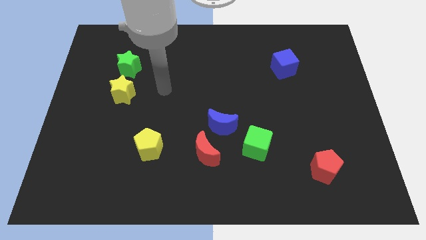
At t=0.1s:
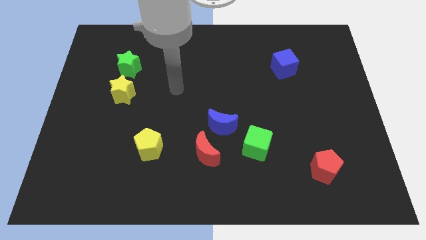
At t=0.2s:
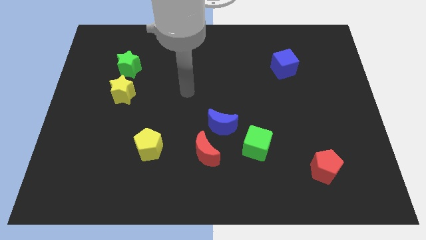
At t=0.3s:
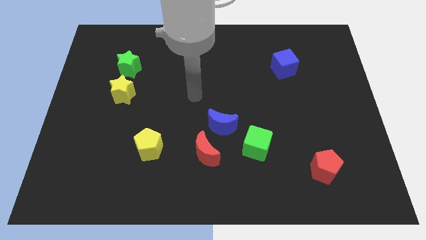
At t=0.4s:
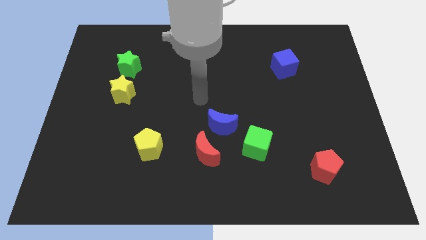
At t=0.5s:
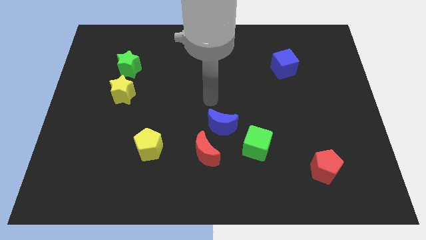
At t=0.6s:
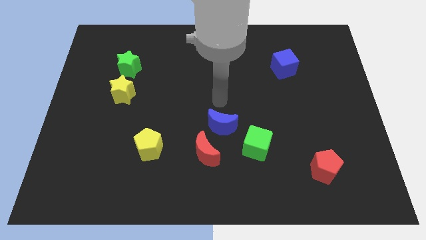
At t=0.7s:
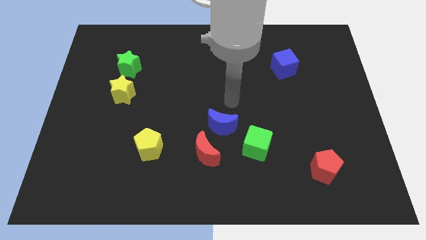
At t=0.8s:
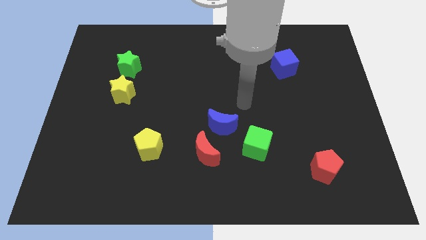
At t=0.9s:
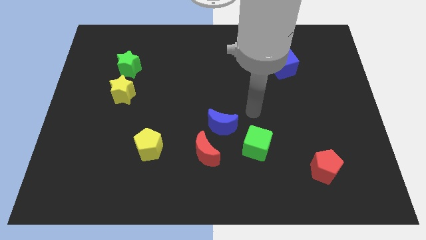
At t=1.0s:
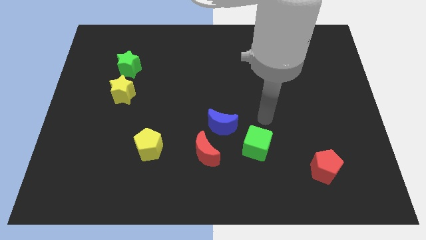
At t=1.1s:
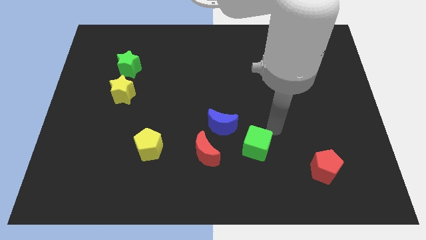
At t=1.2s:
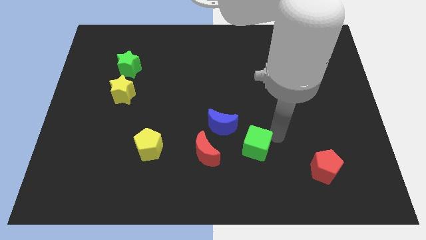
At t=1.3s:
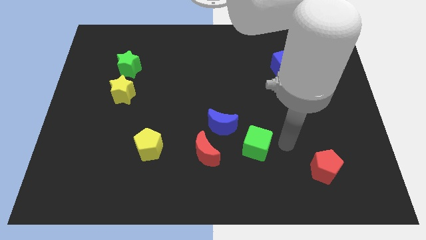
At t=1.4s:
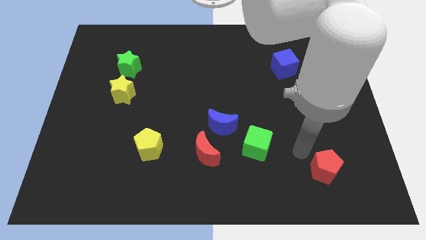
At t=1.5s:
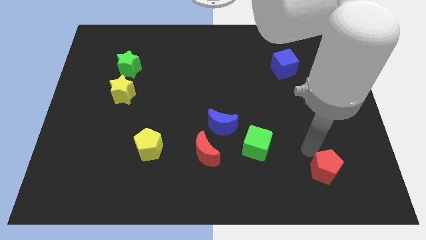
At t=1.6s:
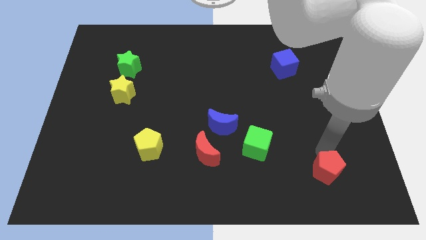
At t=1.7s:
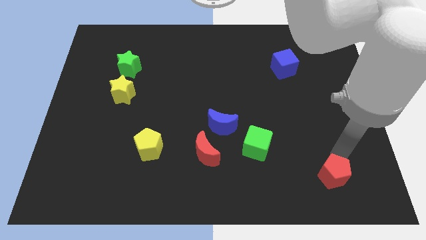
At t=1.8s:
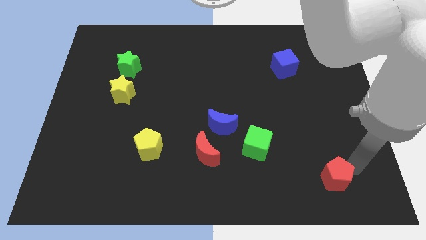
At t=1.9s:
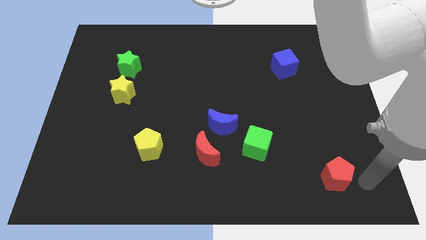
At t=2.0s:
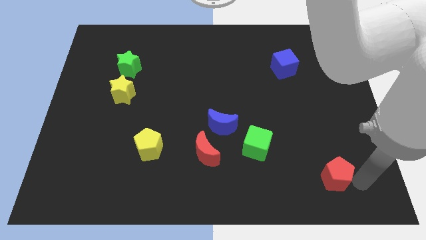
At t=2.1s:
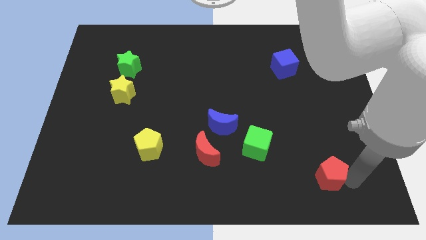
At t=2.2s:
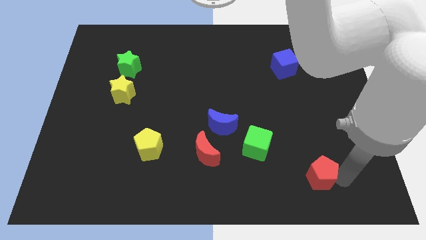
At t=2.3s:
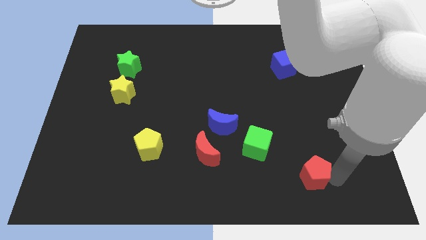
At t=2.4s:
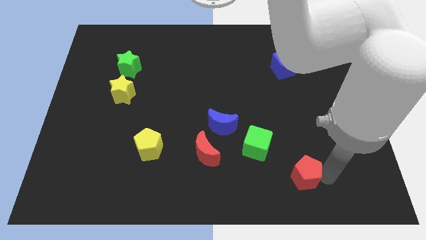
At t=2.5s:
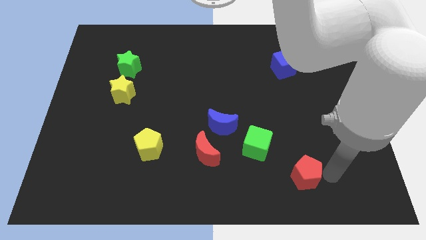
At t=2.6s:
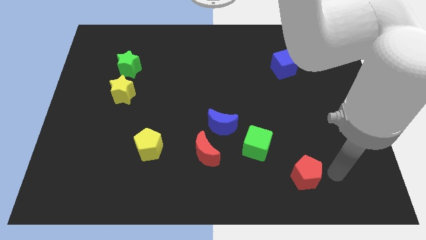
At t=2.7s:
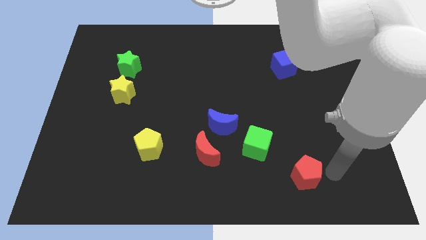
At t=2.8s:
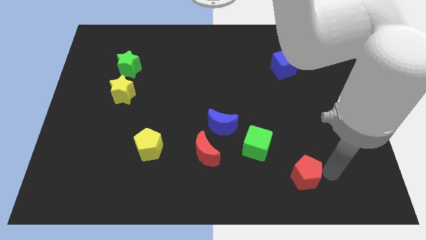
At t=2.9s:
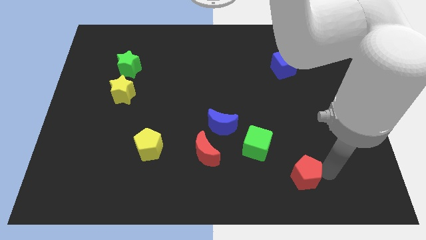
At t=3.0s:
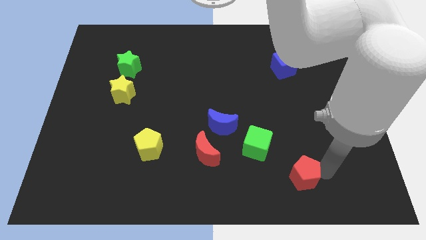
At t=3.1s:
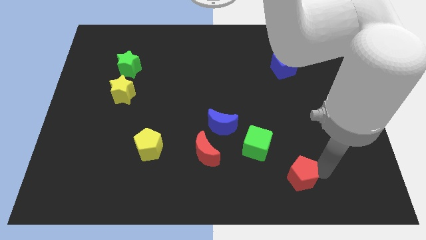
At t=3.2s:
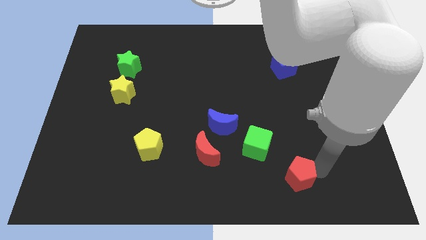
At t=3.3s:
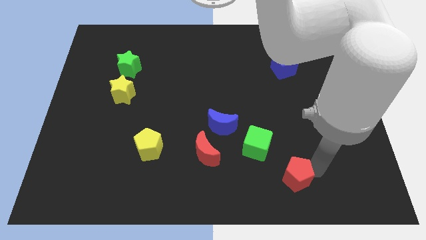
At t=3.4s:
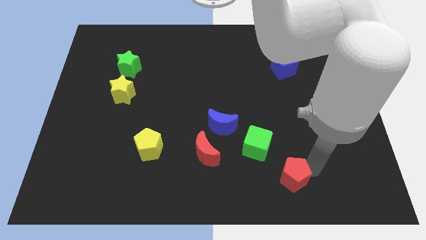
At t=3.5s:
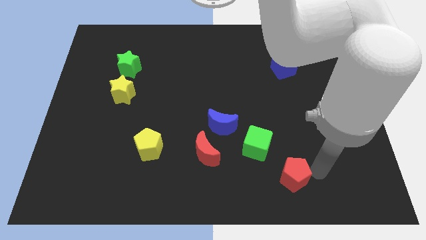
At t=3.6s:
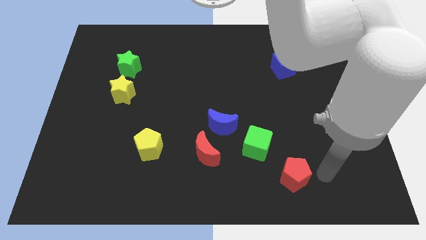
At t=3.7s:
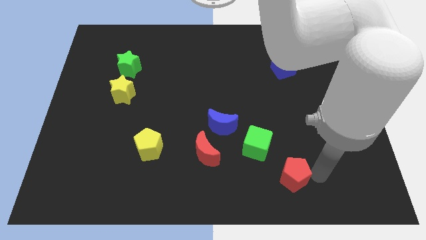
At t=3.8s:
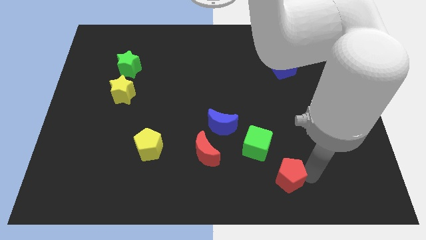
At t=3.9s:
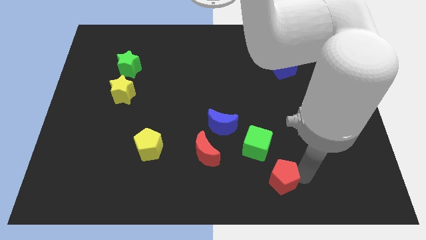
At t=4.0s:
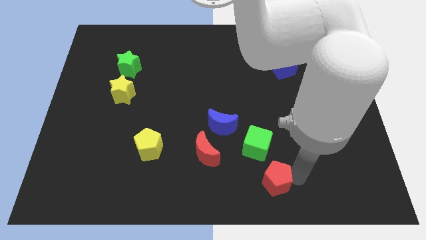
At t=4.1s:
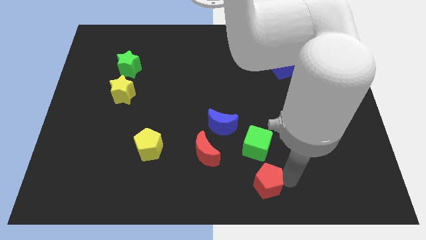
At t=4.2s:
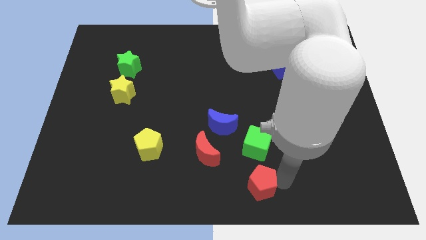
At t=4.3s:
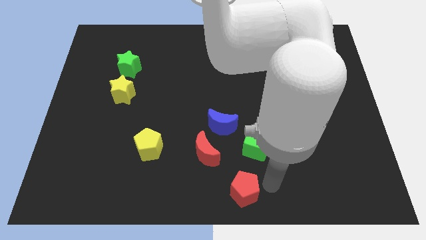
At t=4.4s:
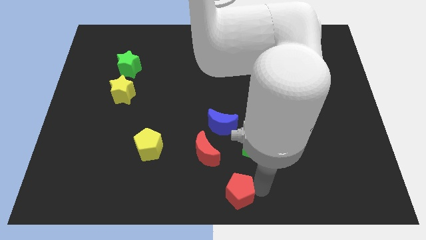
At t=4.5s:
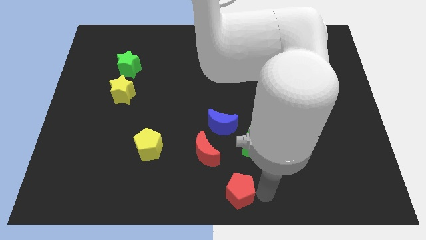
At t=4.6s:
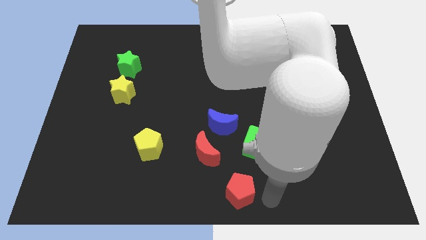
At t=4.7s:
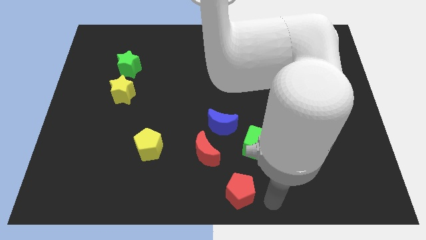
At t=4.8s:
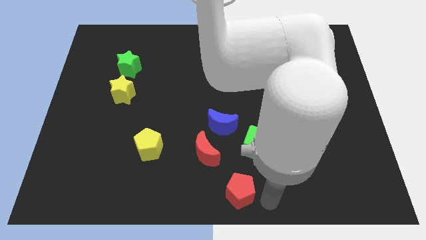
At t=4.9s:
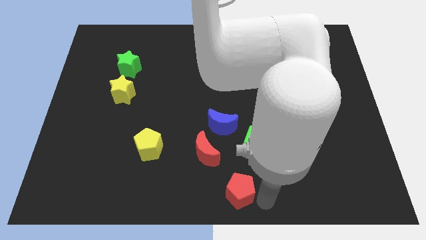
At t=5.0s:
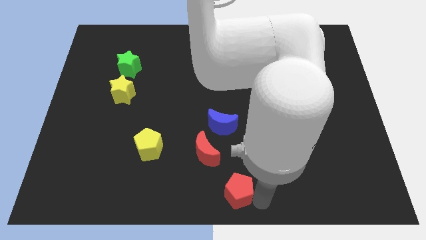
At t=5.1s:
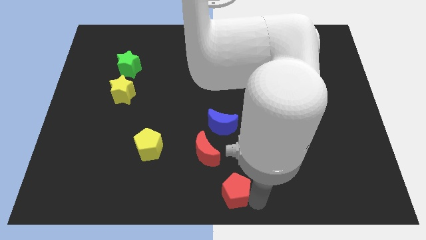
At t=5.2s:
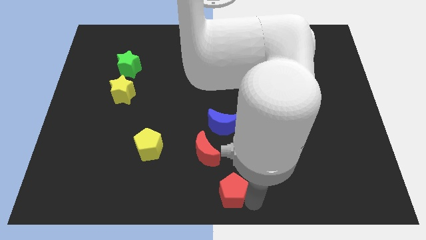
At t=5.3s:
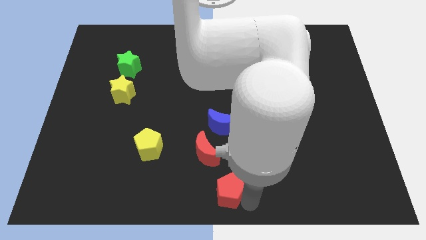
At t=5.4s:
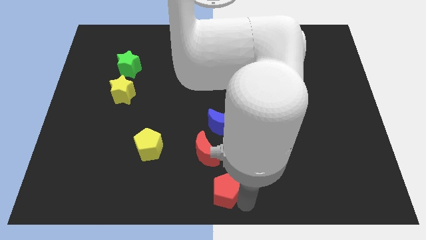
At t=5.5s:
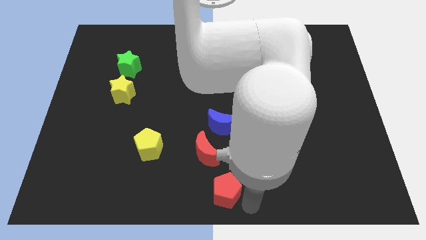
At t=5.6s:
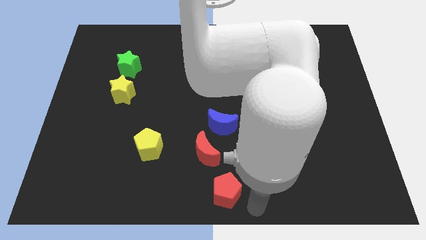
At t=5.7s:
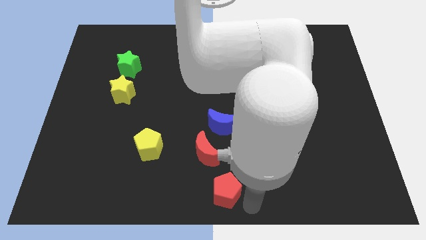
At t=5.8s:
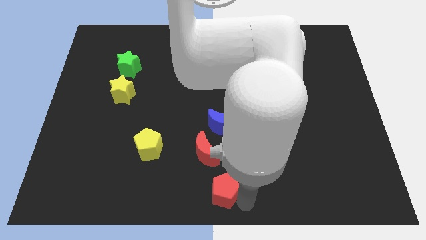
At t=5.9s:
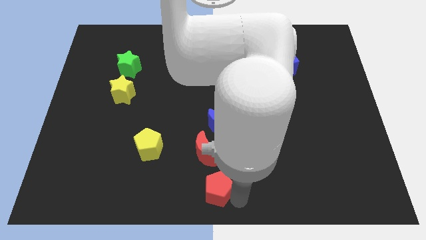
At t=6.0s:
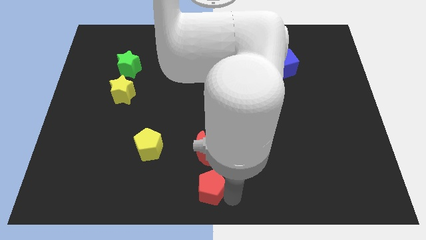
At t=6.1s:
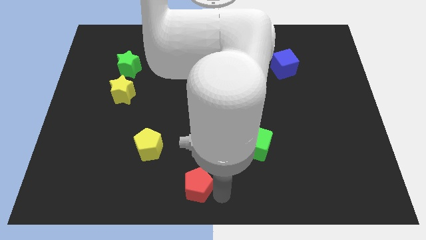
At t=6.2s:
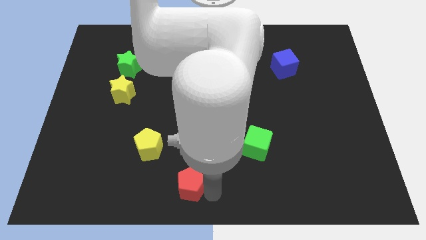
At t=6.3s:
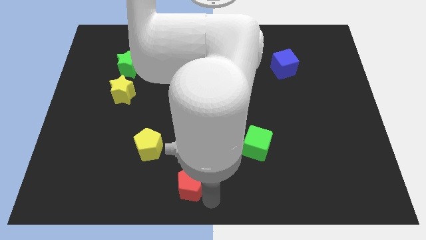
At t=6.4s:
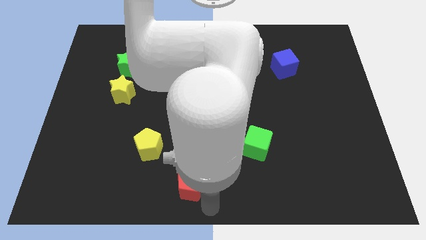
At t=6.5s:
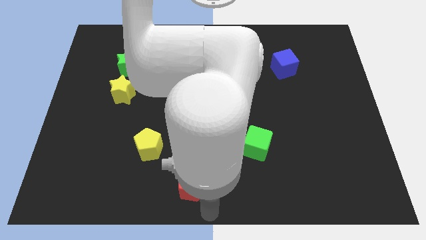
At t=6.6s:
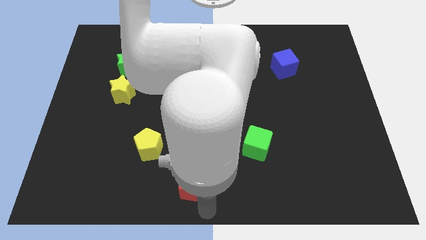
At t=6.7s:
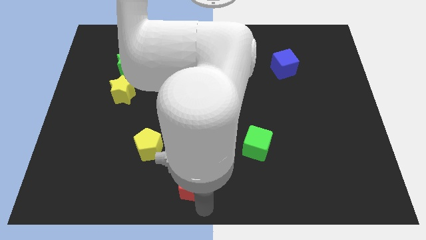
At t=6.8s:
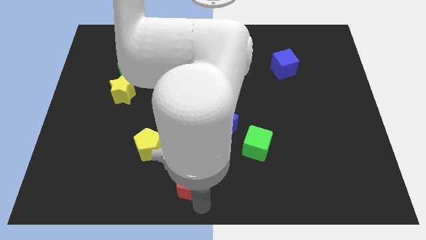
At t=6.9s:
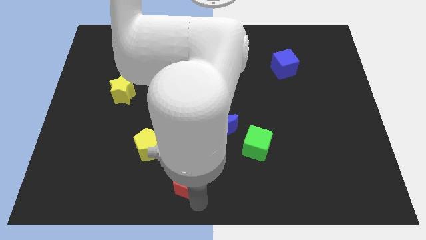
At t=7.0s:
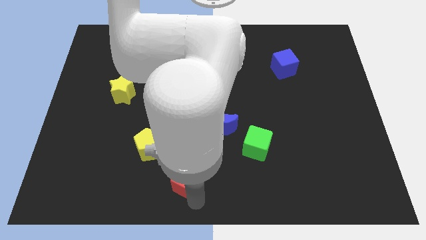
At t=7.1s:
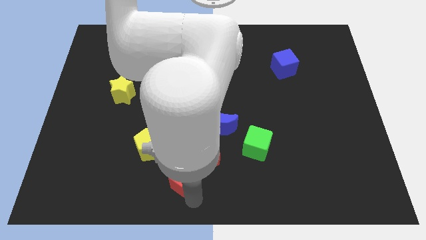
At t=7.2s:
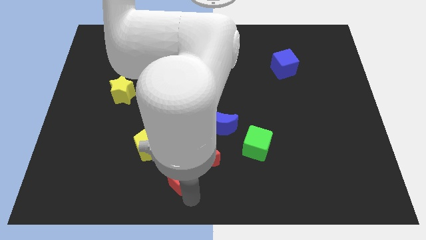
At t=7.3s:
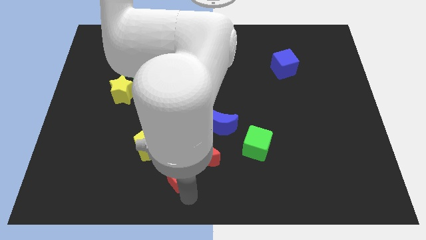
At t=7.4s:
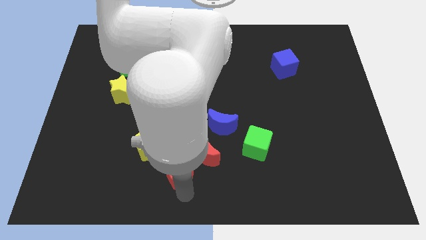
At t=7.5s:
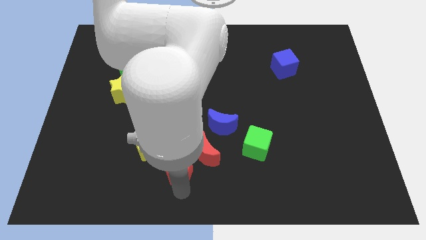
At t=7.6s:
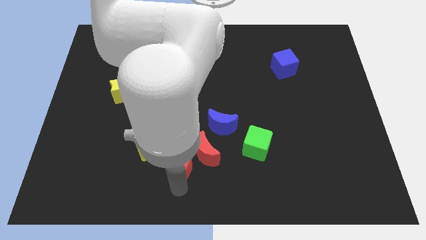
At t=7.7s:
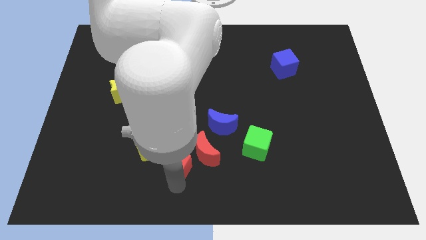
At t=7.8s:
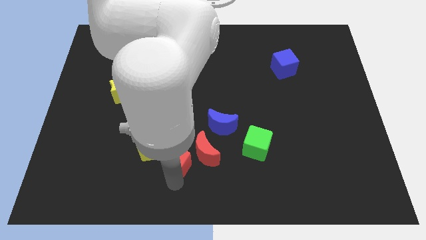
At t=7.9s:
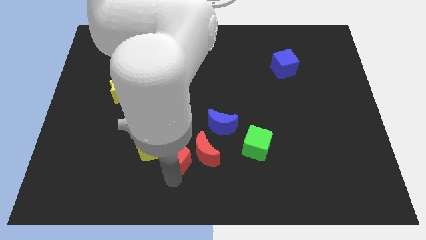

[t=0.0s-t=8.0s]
move the red pentagon diagonally down and to the left of the blue moon
